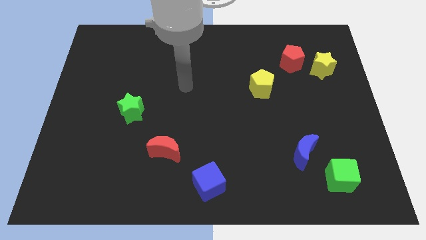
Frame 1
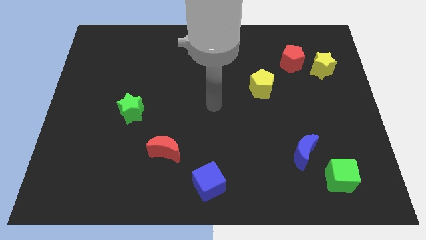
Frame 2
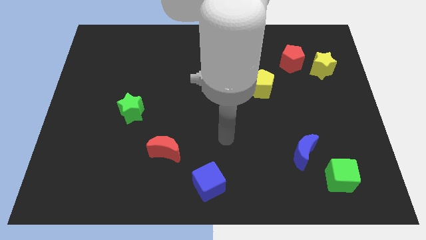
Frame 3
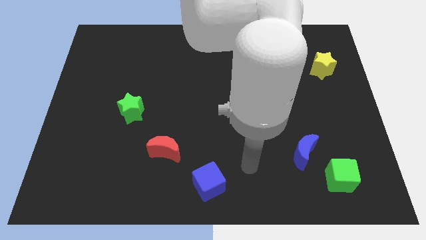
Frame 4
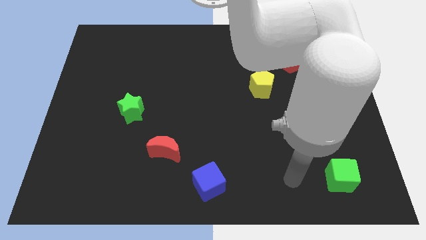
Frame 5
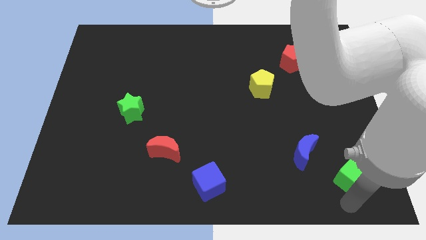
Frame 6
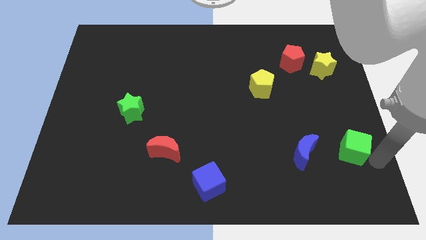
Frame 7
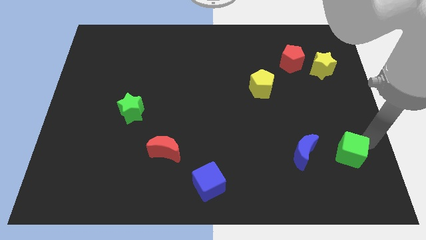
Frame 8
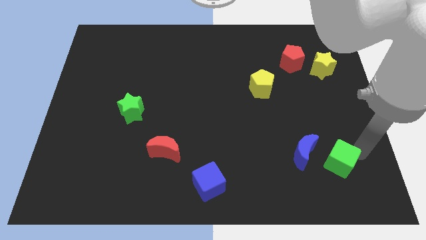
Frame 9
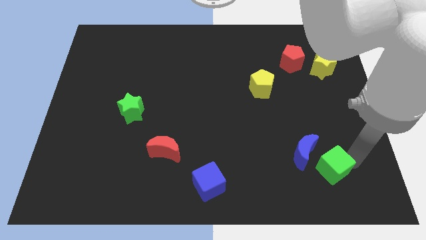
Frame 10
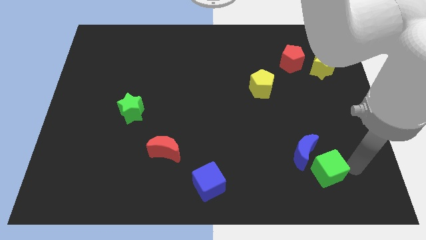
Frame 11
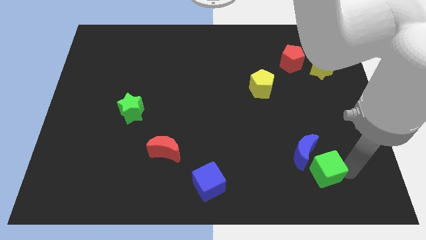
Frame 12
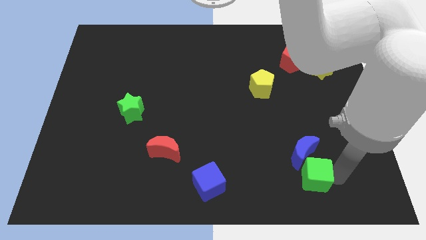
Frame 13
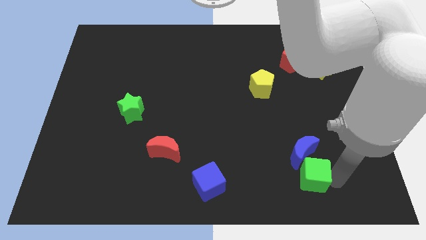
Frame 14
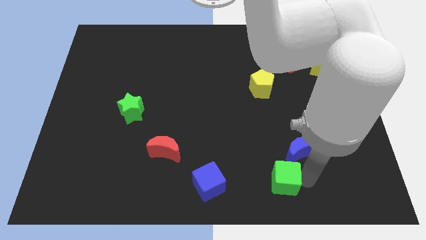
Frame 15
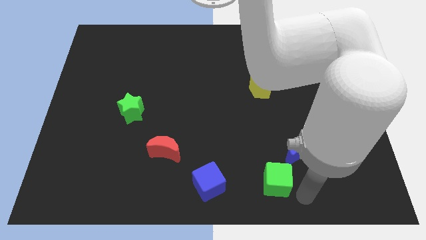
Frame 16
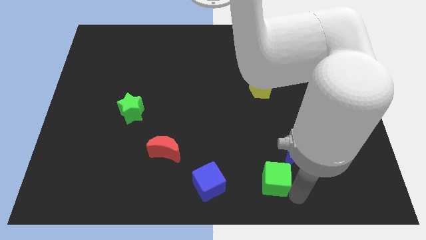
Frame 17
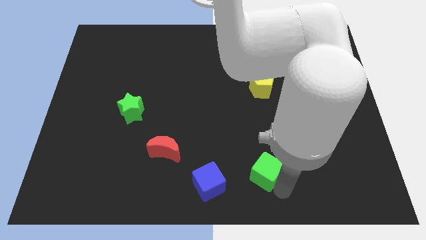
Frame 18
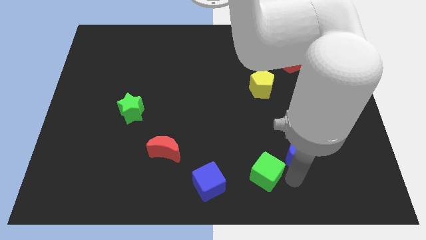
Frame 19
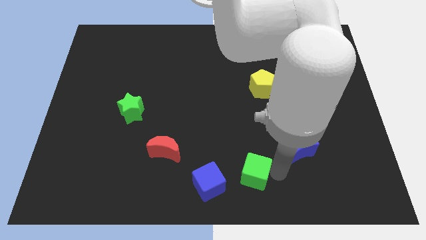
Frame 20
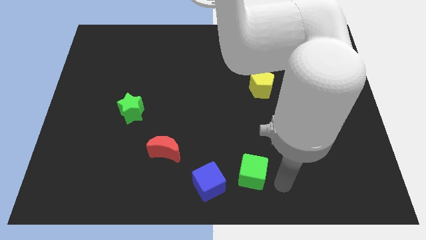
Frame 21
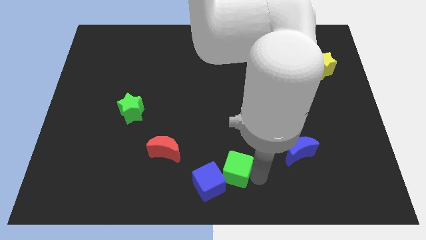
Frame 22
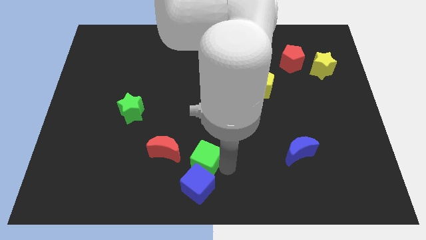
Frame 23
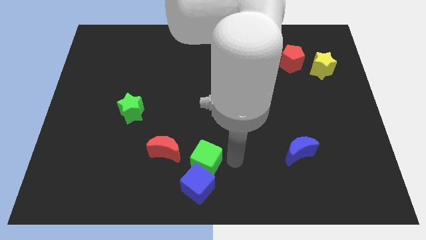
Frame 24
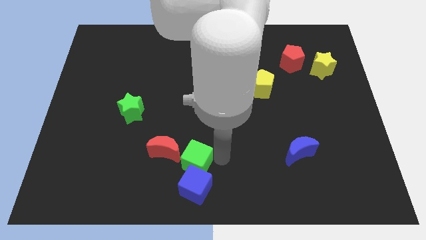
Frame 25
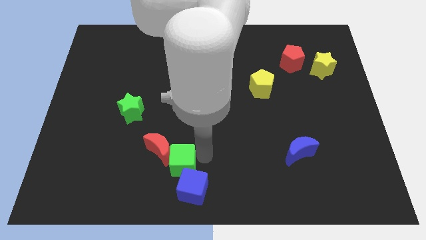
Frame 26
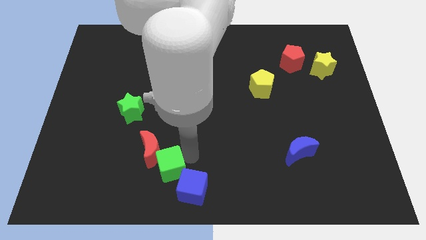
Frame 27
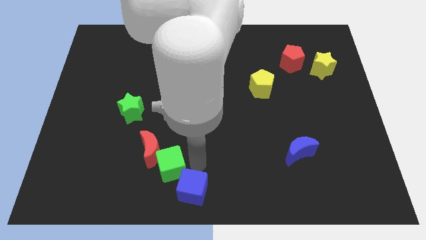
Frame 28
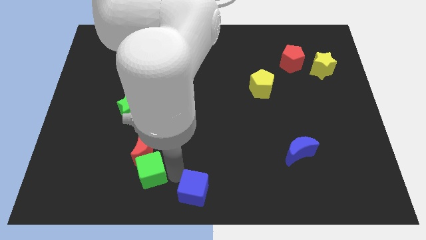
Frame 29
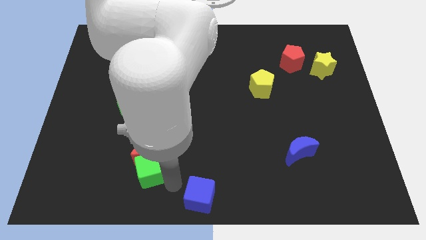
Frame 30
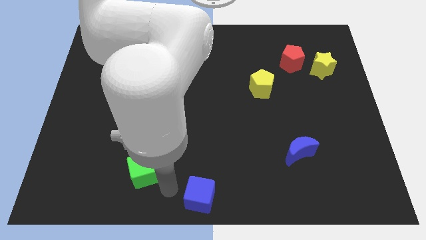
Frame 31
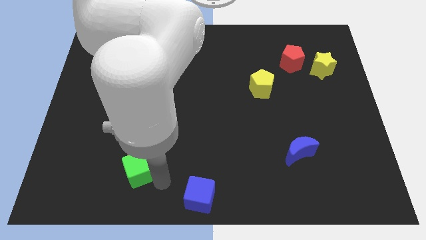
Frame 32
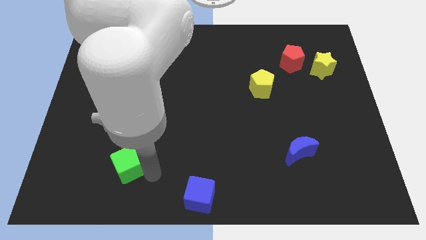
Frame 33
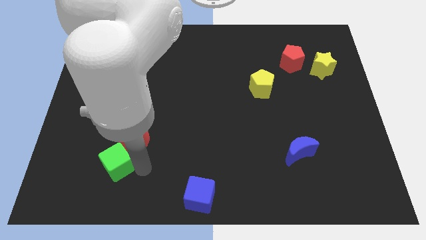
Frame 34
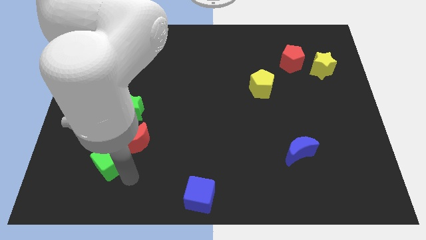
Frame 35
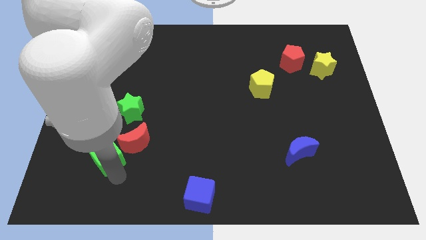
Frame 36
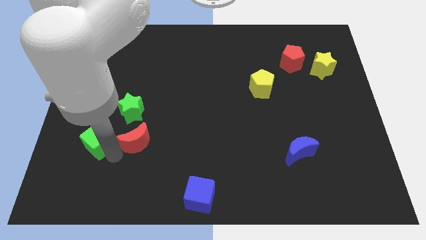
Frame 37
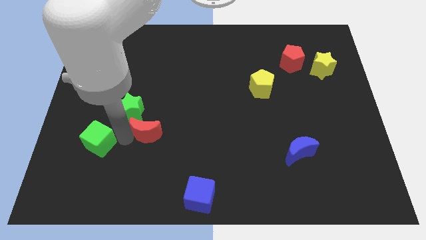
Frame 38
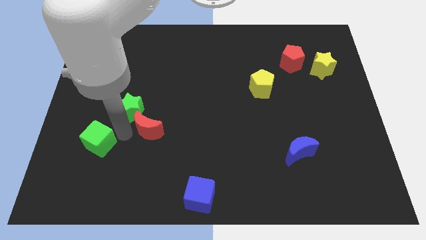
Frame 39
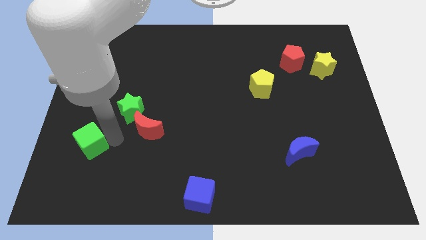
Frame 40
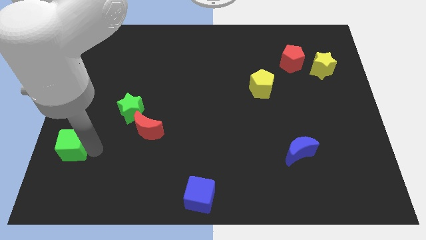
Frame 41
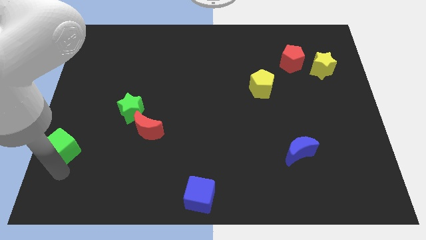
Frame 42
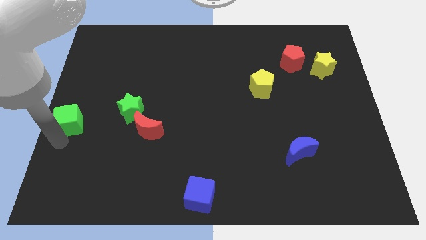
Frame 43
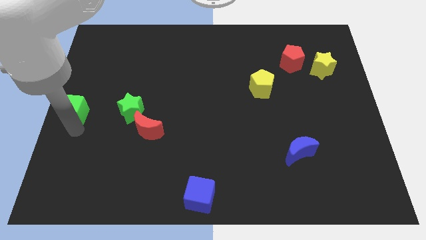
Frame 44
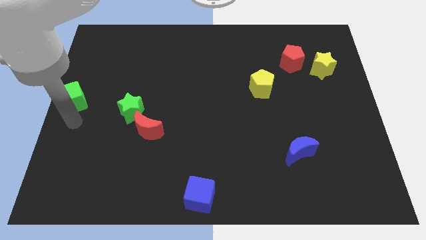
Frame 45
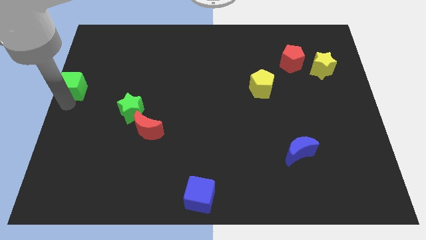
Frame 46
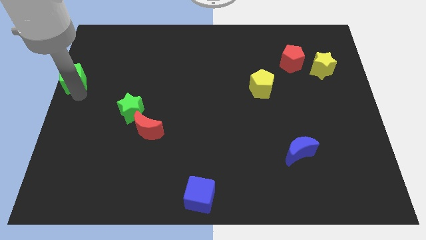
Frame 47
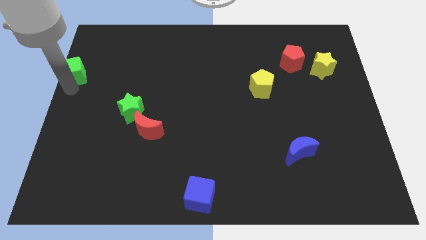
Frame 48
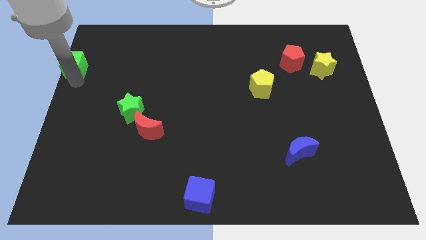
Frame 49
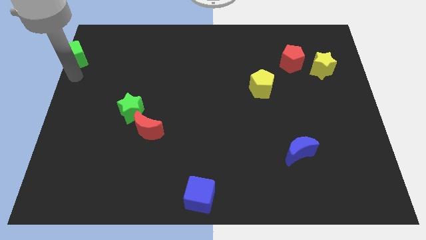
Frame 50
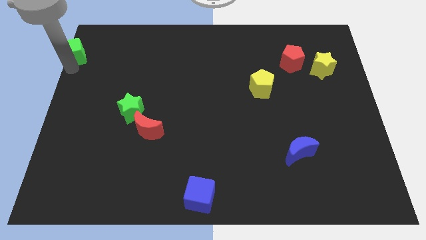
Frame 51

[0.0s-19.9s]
move the green cube to the top left corner
